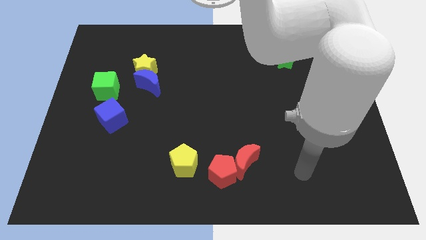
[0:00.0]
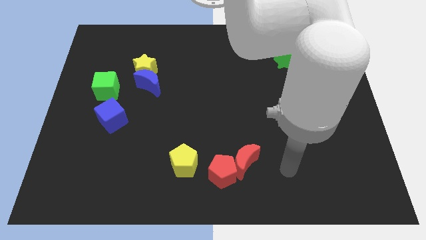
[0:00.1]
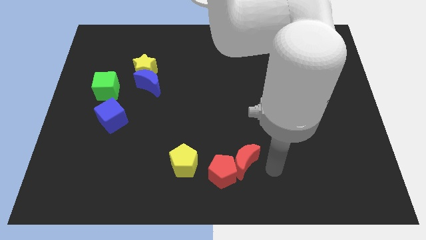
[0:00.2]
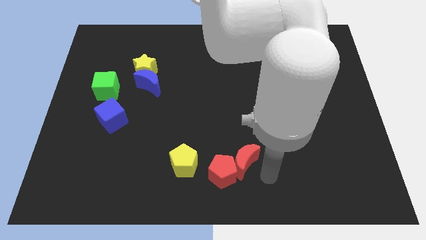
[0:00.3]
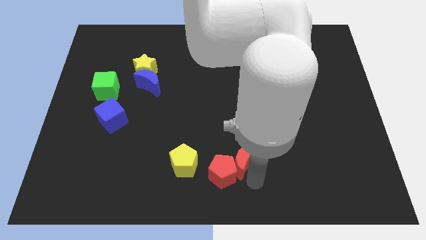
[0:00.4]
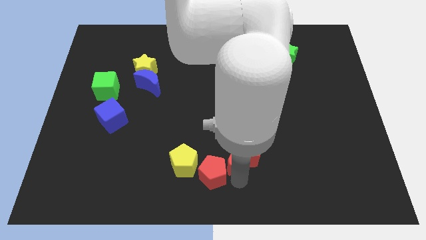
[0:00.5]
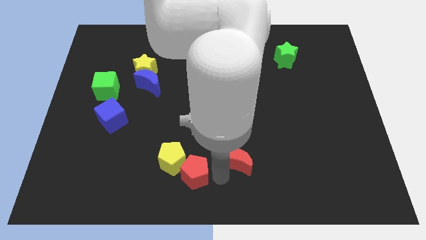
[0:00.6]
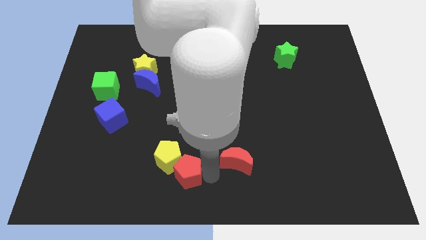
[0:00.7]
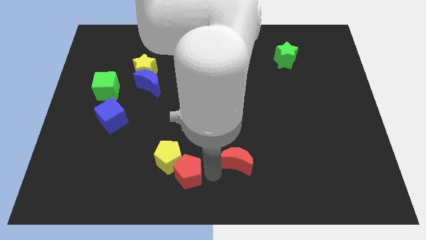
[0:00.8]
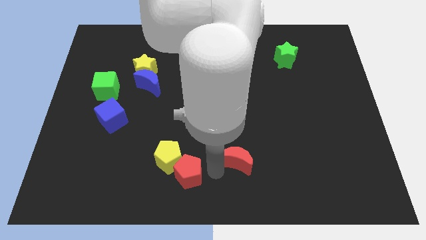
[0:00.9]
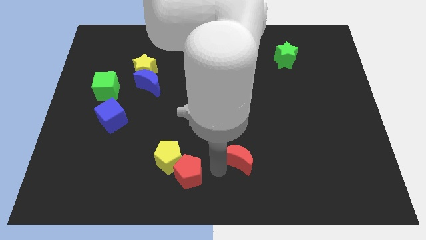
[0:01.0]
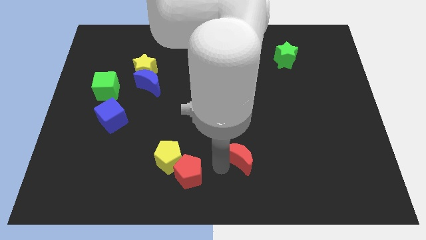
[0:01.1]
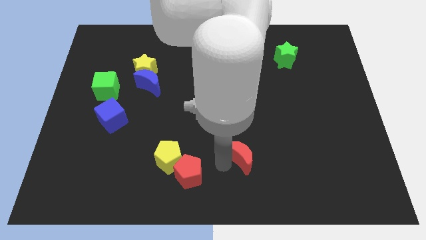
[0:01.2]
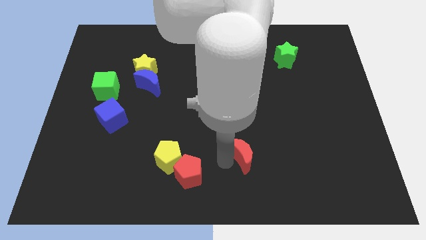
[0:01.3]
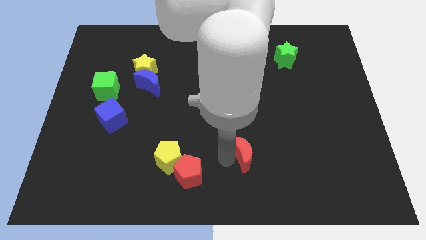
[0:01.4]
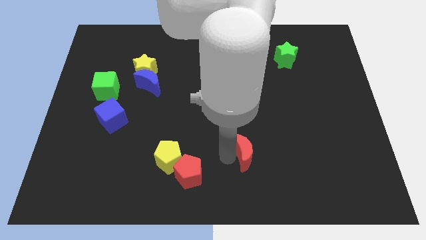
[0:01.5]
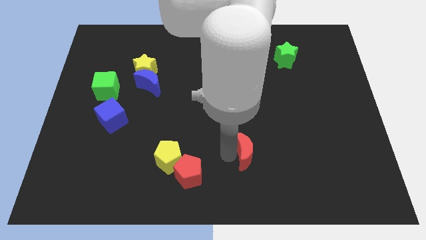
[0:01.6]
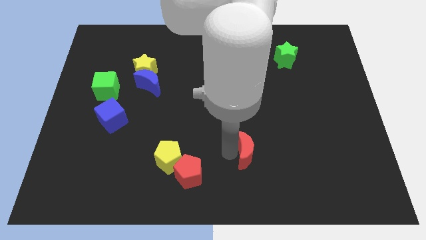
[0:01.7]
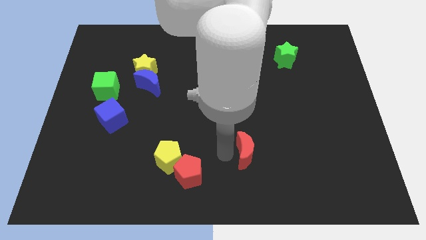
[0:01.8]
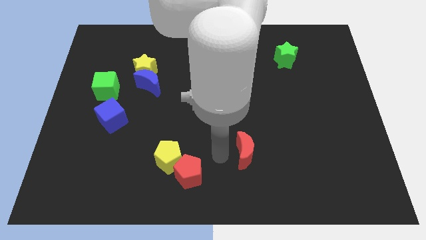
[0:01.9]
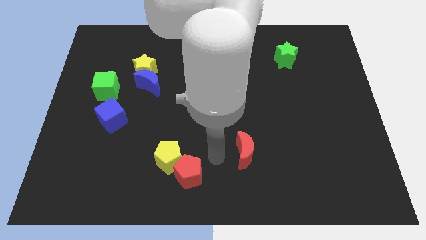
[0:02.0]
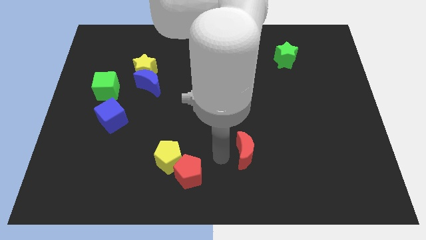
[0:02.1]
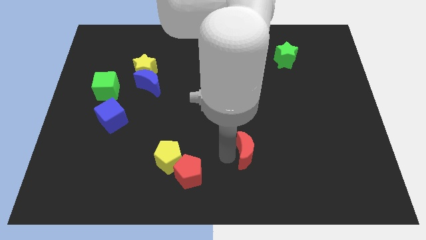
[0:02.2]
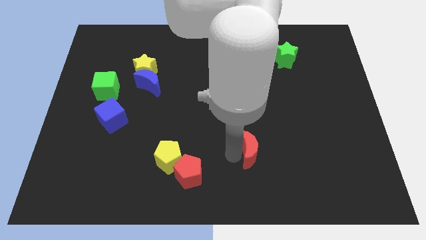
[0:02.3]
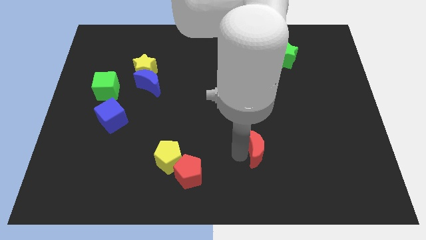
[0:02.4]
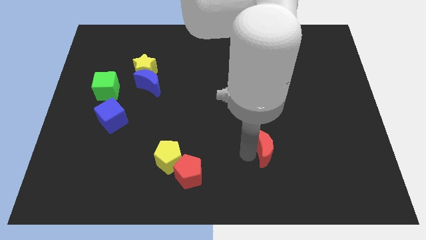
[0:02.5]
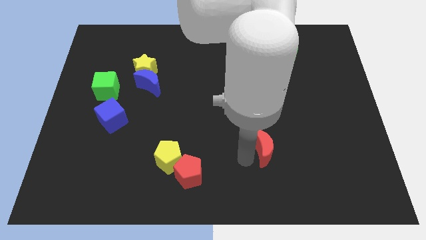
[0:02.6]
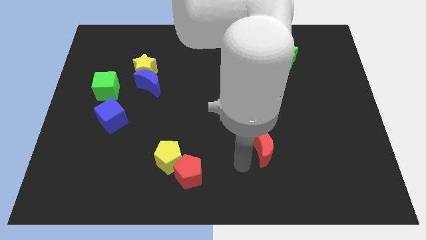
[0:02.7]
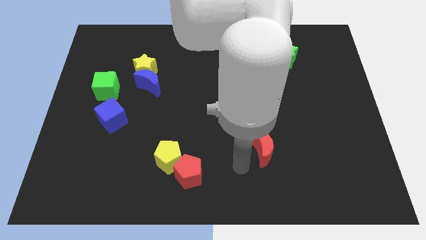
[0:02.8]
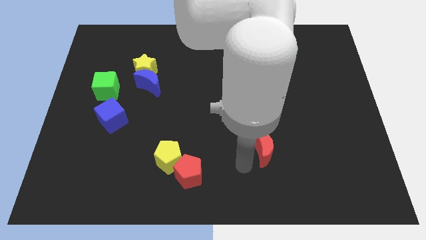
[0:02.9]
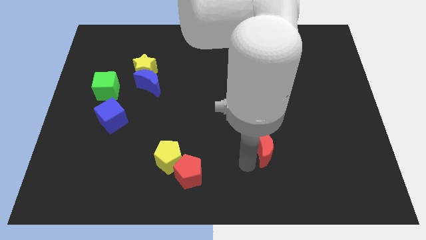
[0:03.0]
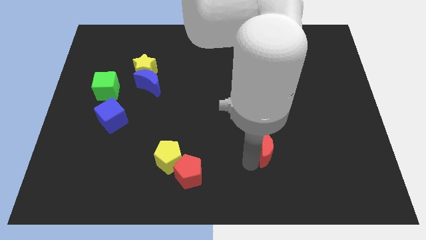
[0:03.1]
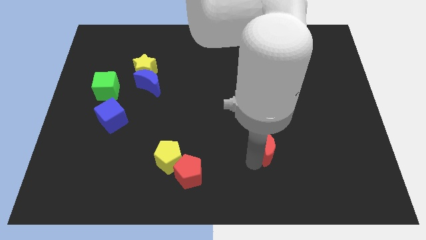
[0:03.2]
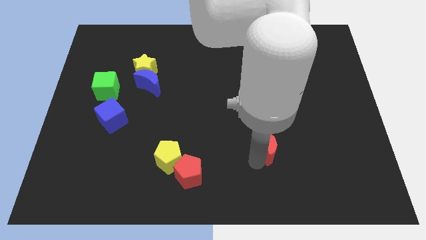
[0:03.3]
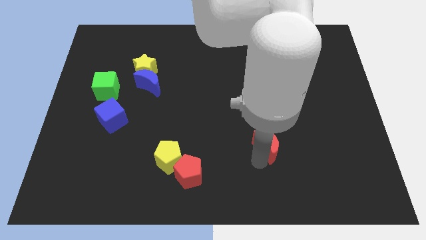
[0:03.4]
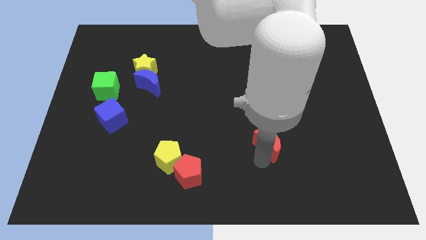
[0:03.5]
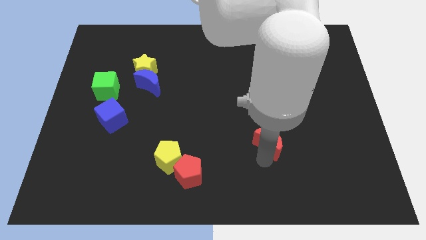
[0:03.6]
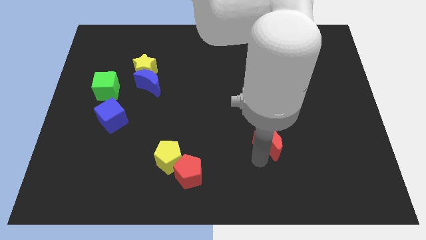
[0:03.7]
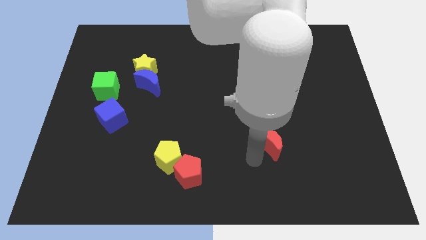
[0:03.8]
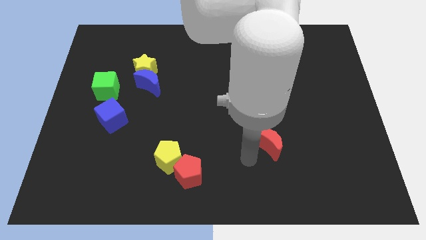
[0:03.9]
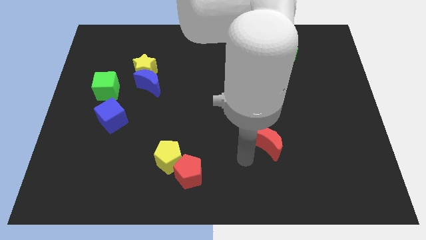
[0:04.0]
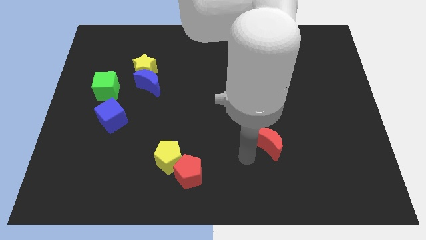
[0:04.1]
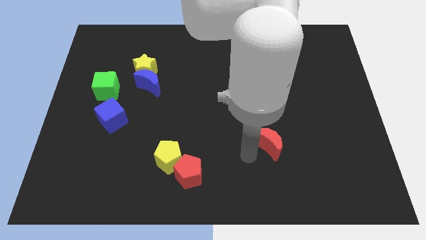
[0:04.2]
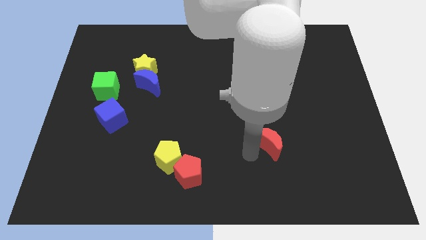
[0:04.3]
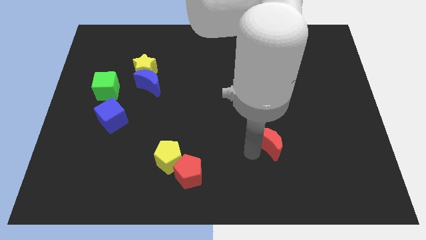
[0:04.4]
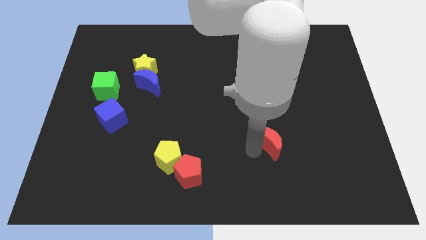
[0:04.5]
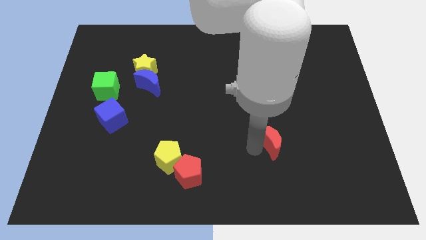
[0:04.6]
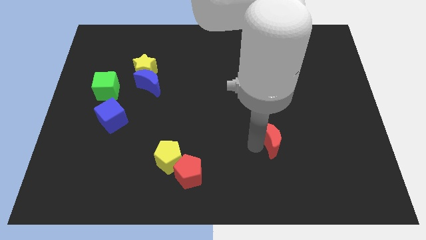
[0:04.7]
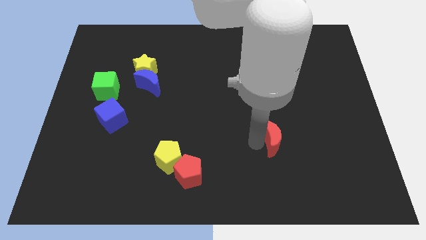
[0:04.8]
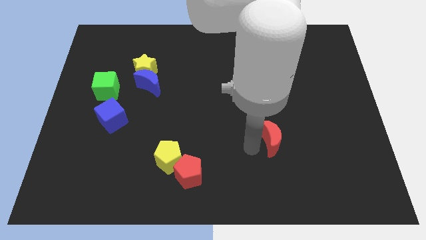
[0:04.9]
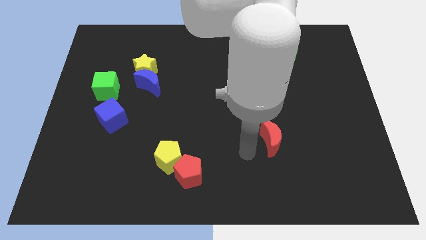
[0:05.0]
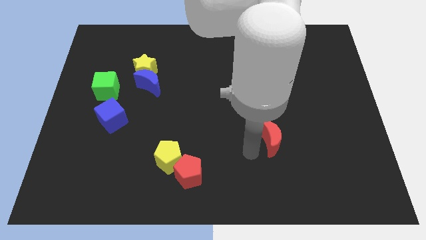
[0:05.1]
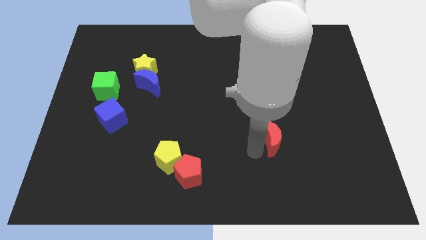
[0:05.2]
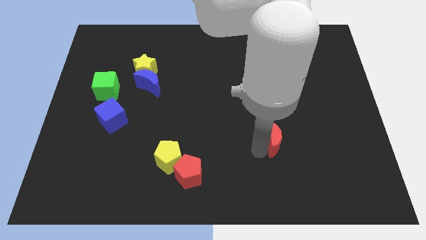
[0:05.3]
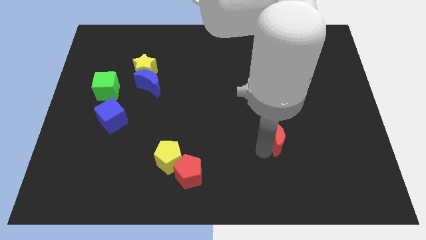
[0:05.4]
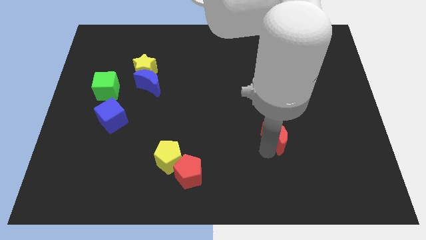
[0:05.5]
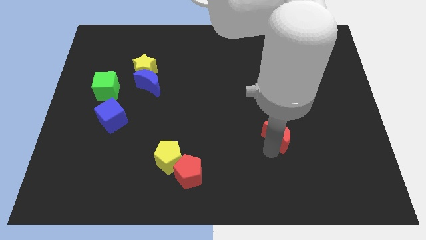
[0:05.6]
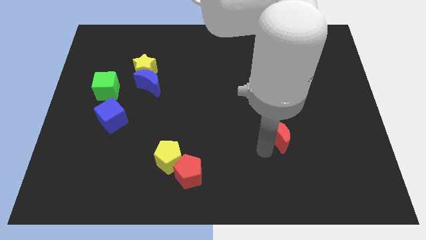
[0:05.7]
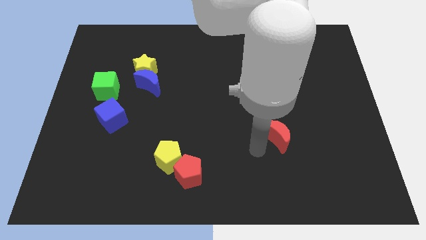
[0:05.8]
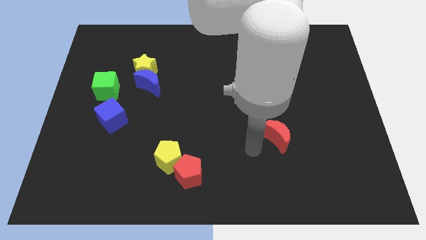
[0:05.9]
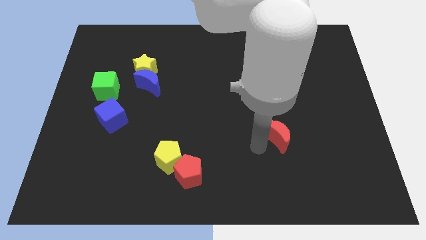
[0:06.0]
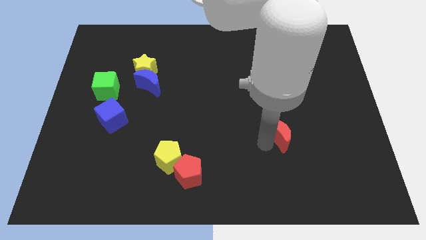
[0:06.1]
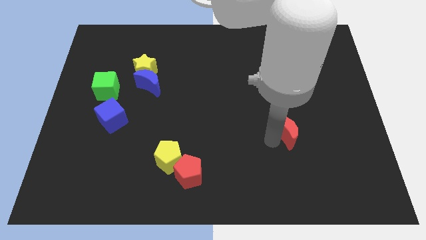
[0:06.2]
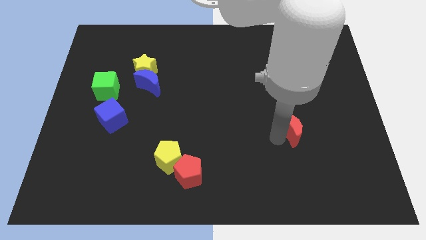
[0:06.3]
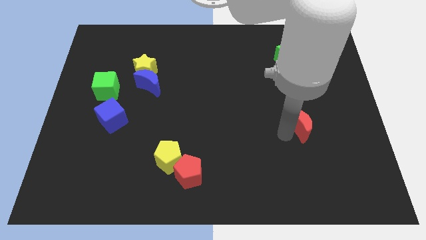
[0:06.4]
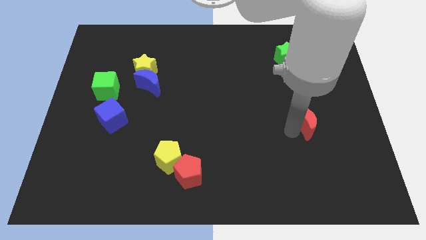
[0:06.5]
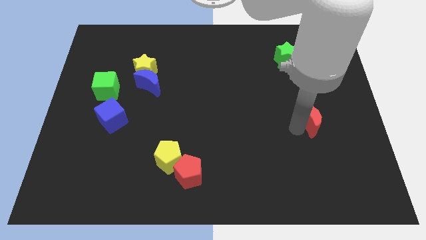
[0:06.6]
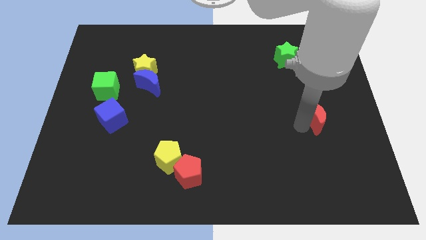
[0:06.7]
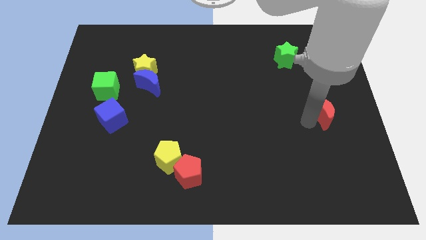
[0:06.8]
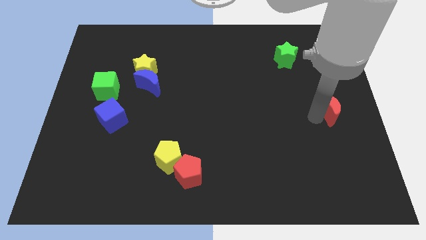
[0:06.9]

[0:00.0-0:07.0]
put the red moon to the center right

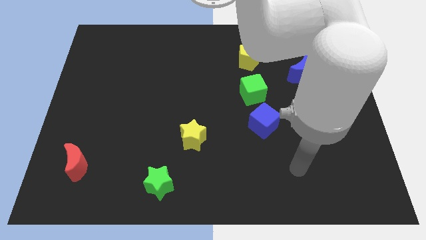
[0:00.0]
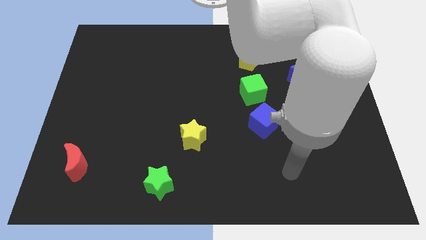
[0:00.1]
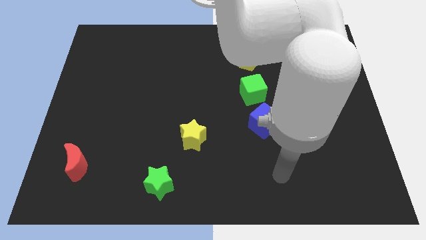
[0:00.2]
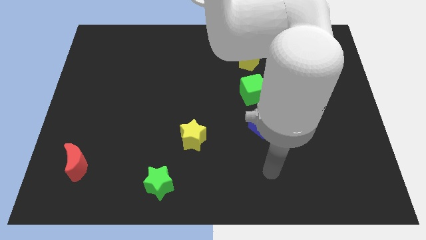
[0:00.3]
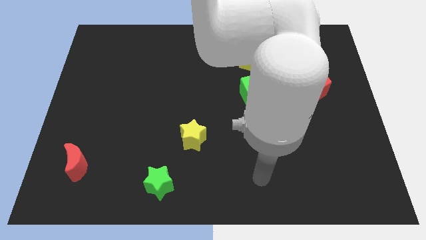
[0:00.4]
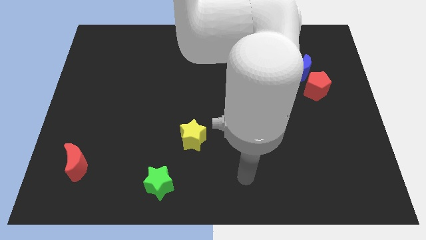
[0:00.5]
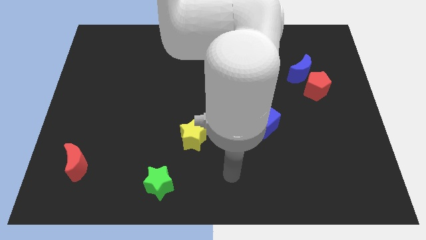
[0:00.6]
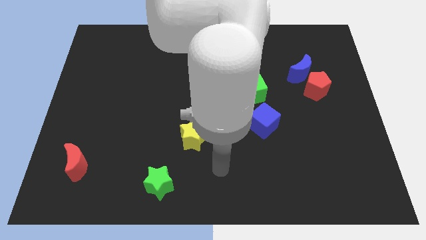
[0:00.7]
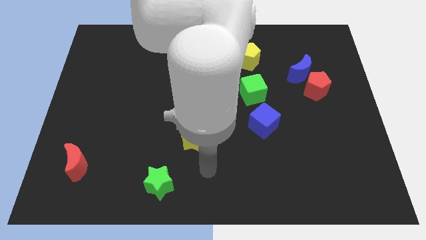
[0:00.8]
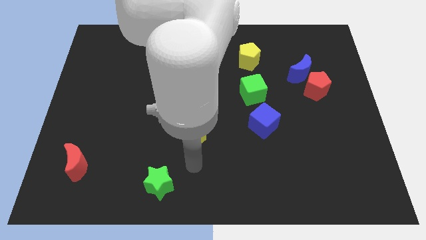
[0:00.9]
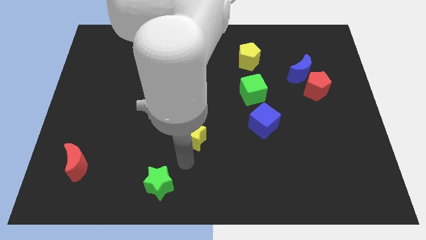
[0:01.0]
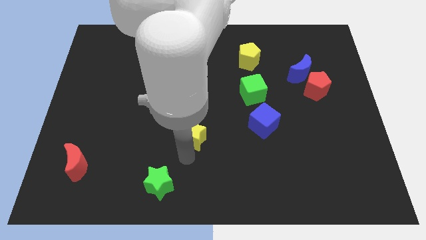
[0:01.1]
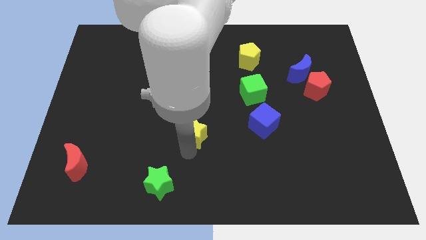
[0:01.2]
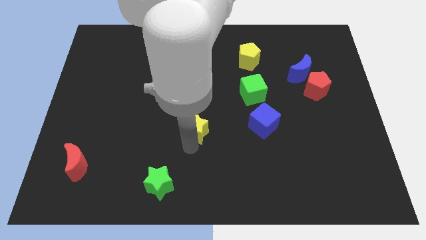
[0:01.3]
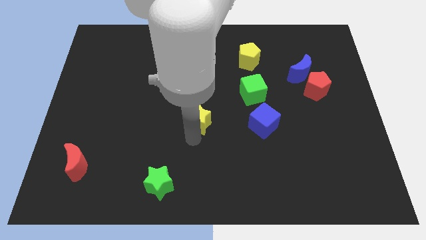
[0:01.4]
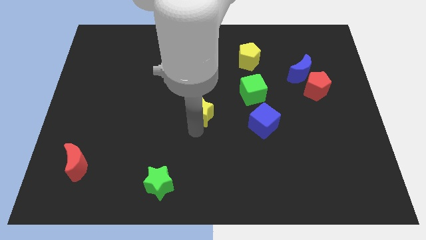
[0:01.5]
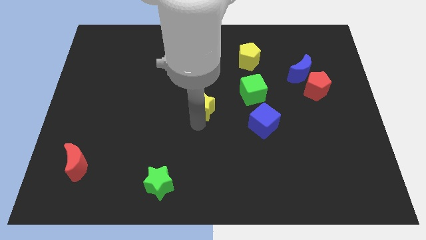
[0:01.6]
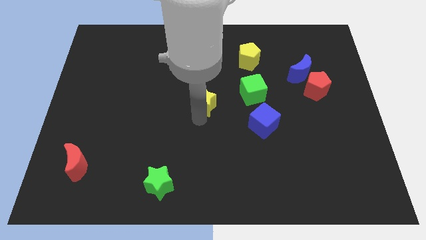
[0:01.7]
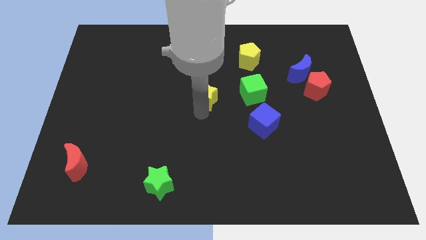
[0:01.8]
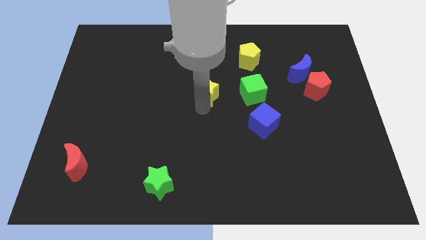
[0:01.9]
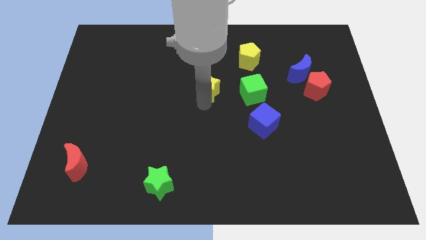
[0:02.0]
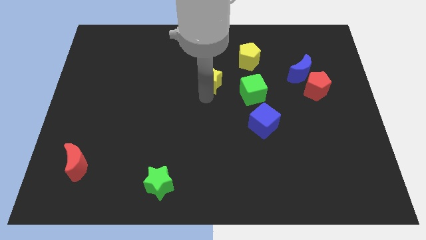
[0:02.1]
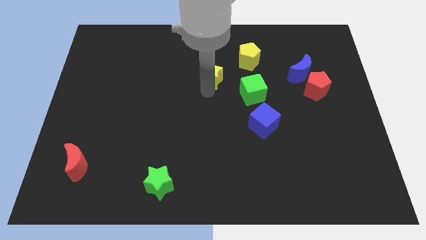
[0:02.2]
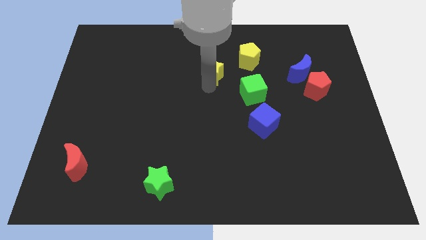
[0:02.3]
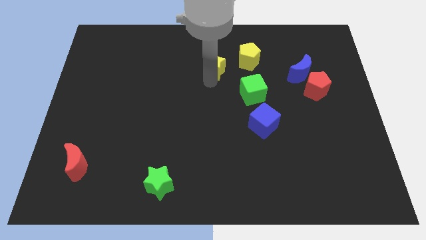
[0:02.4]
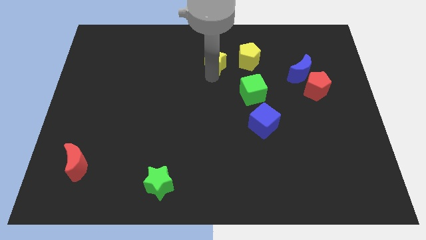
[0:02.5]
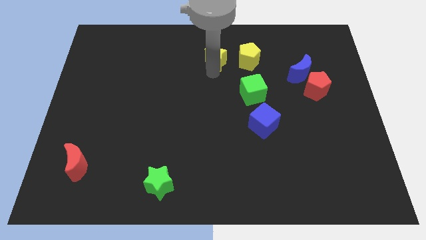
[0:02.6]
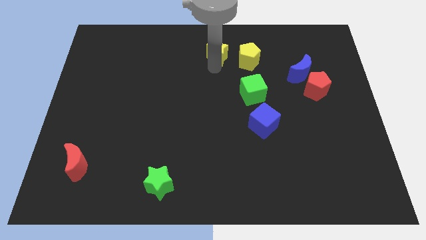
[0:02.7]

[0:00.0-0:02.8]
slide the yellow star to the towards your base
